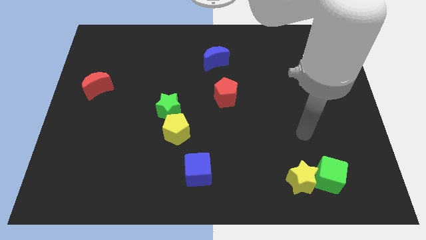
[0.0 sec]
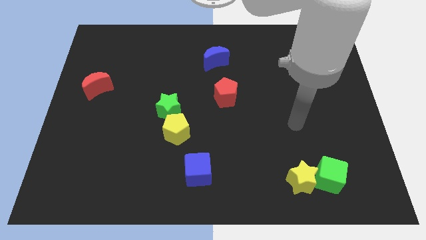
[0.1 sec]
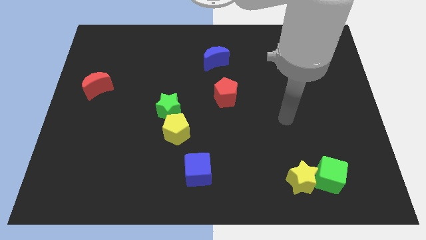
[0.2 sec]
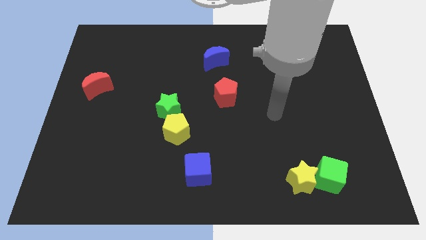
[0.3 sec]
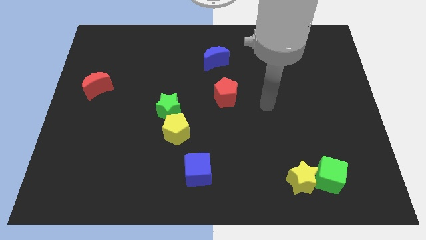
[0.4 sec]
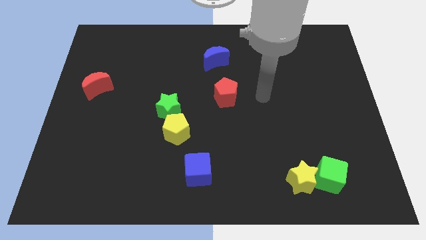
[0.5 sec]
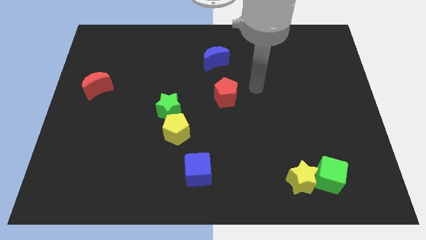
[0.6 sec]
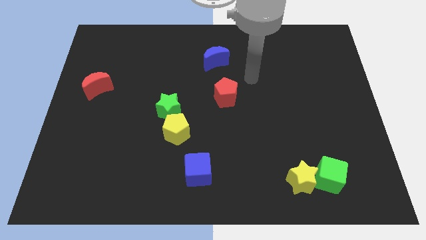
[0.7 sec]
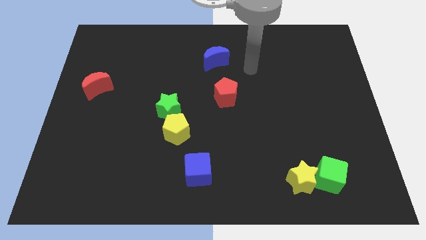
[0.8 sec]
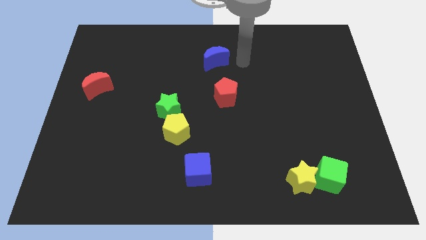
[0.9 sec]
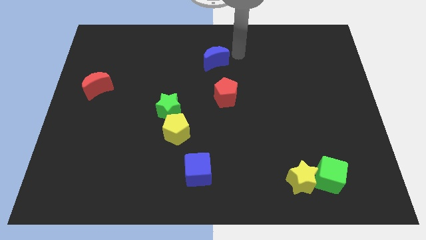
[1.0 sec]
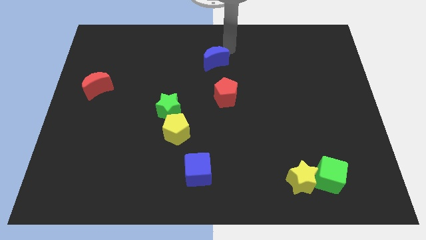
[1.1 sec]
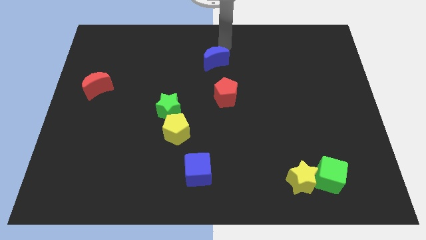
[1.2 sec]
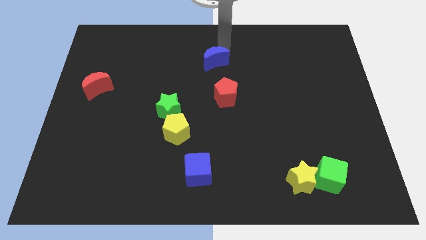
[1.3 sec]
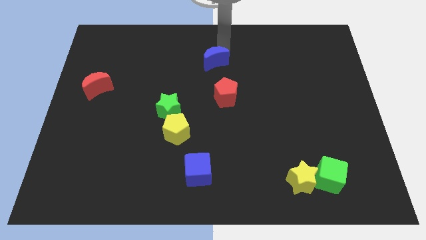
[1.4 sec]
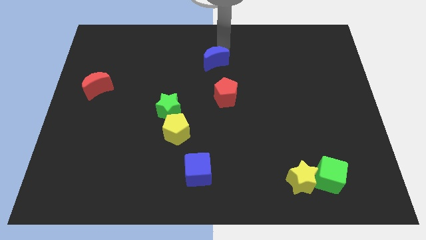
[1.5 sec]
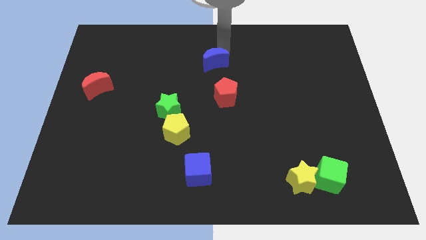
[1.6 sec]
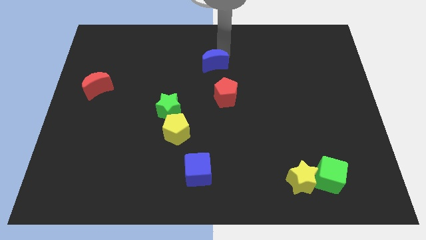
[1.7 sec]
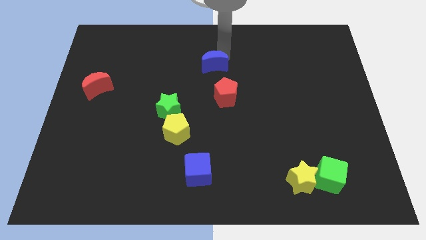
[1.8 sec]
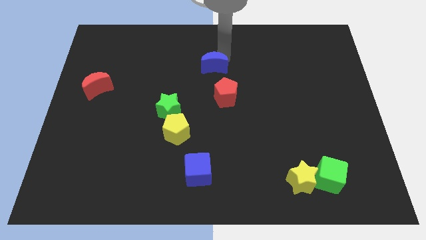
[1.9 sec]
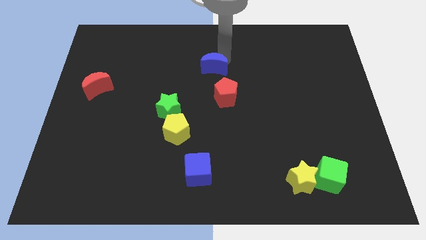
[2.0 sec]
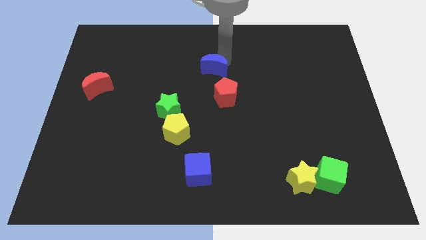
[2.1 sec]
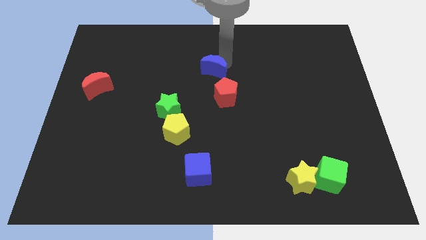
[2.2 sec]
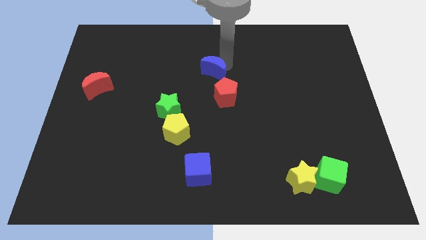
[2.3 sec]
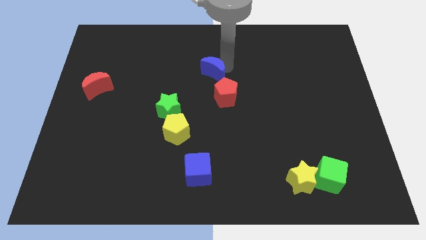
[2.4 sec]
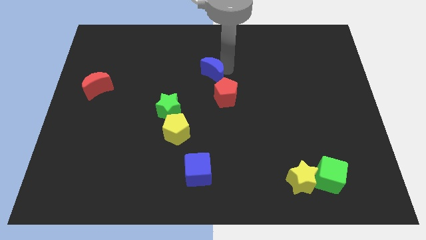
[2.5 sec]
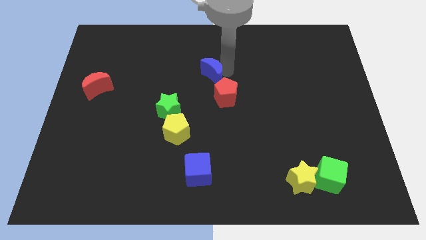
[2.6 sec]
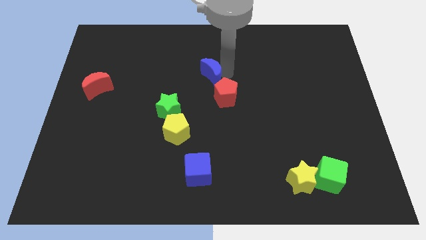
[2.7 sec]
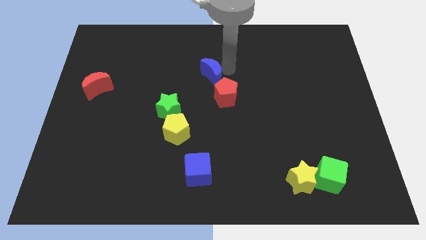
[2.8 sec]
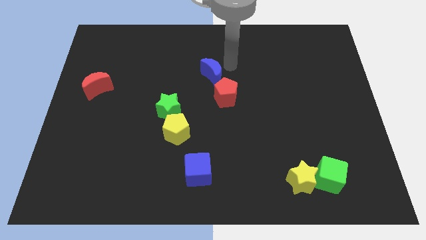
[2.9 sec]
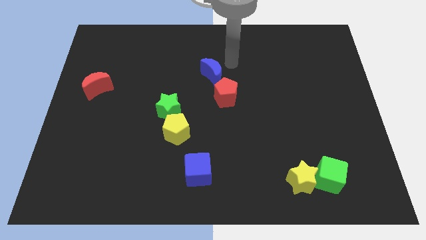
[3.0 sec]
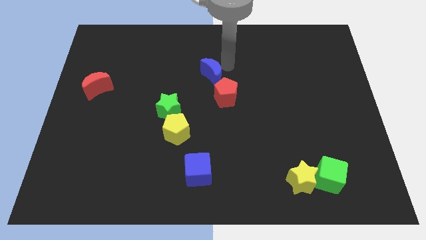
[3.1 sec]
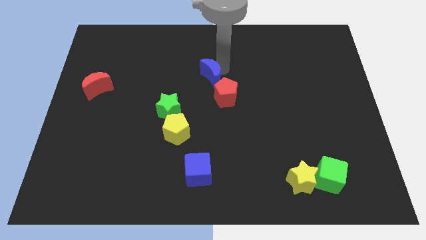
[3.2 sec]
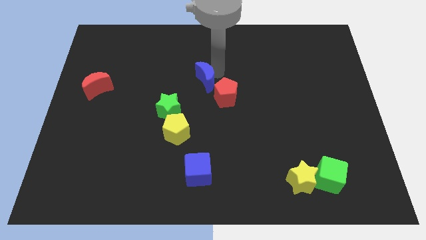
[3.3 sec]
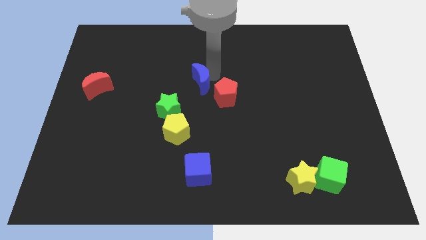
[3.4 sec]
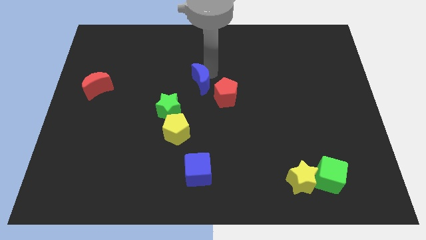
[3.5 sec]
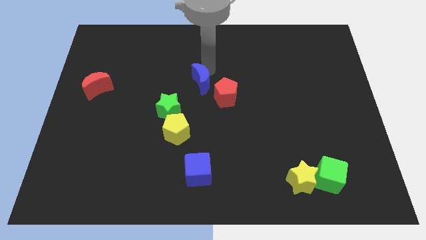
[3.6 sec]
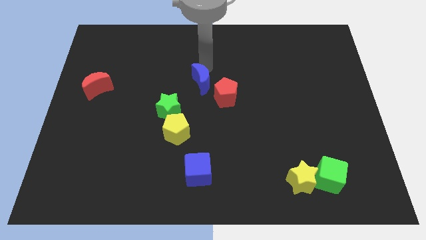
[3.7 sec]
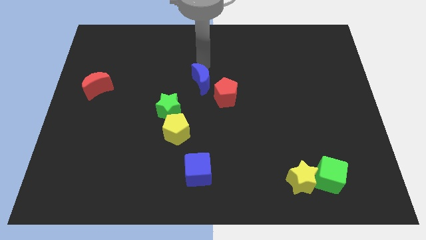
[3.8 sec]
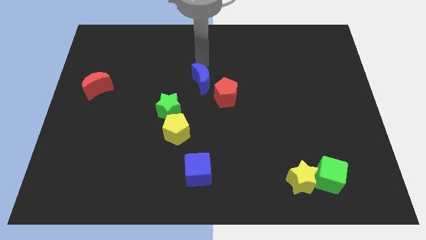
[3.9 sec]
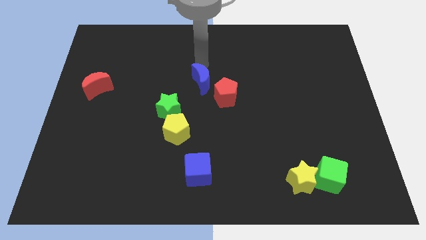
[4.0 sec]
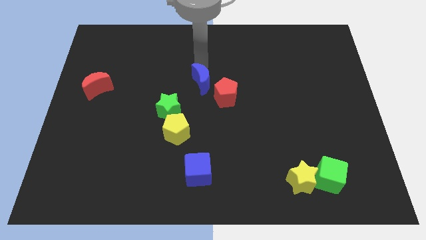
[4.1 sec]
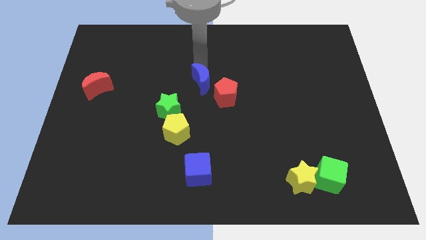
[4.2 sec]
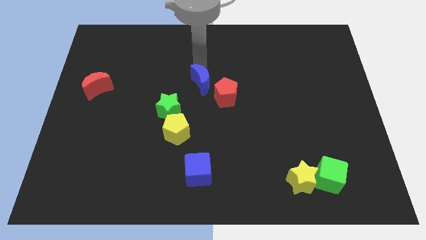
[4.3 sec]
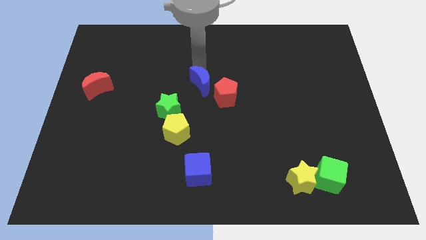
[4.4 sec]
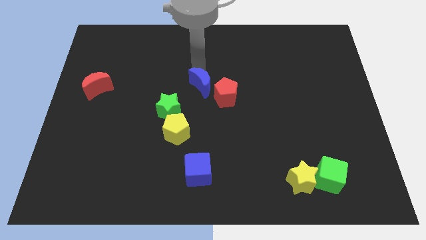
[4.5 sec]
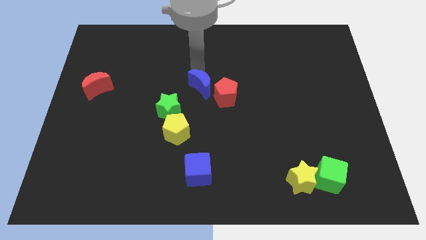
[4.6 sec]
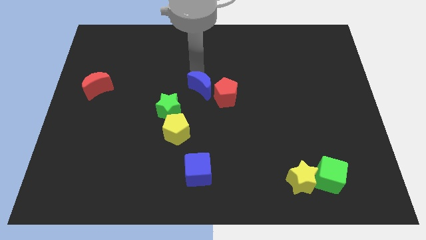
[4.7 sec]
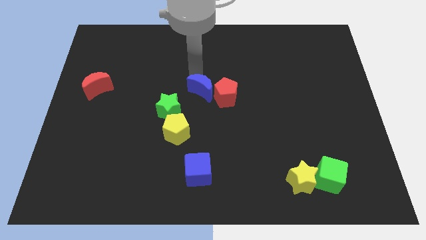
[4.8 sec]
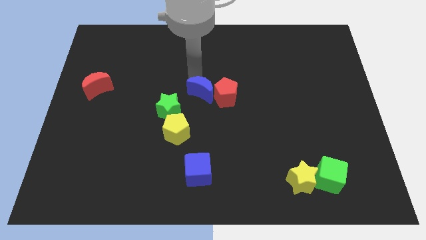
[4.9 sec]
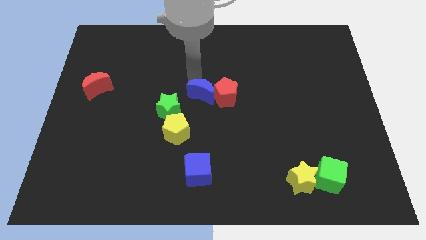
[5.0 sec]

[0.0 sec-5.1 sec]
move the blue moon to the bottom left of the red pentagon

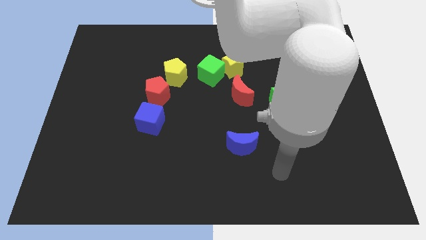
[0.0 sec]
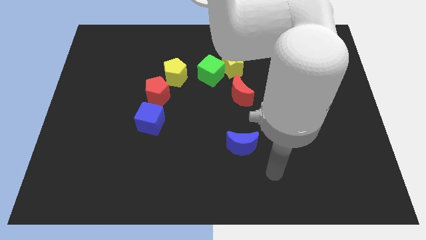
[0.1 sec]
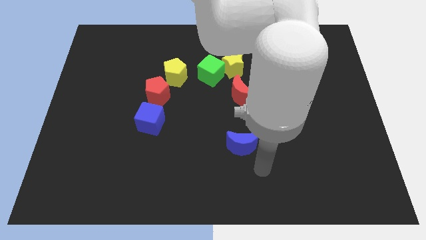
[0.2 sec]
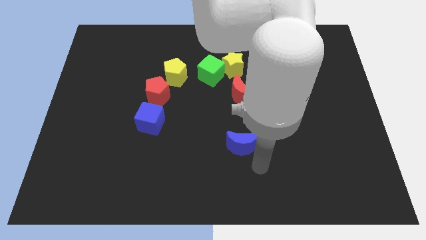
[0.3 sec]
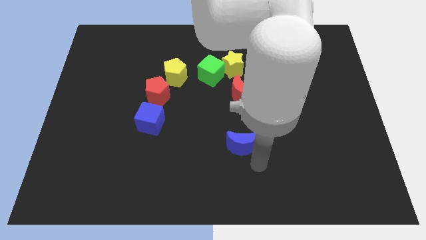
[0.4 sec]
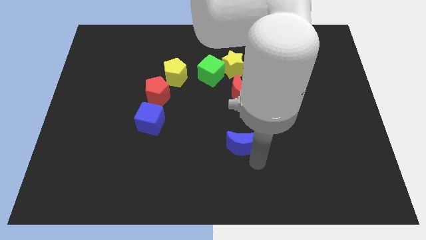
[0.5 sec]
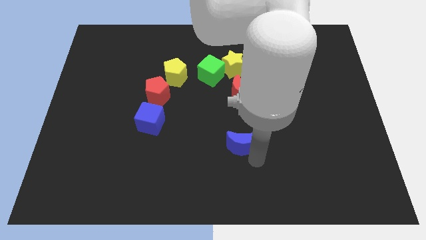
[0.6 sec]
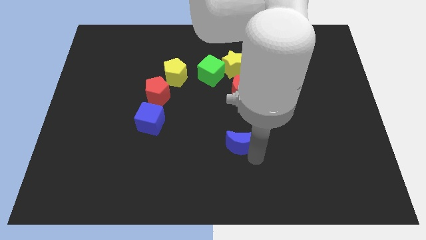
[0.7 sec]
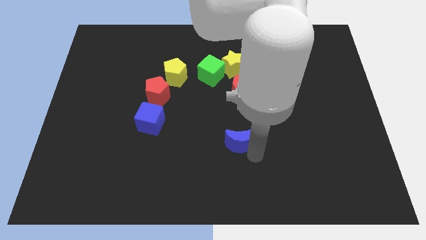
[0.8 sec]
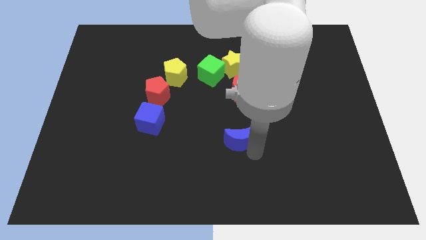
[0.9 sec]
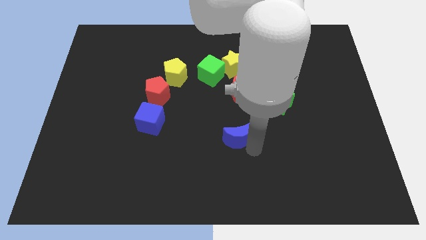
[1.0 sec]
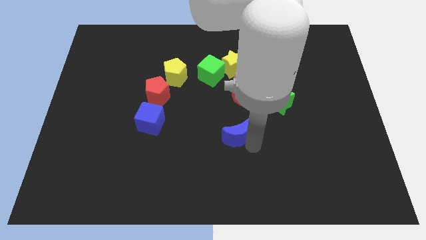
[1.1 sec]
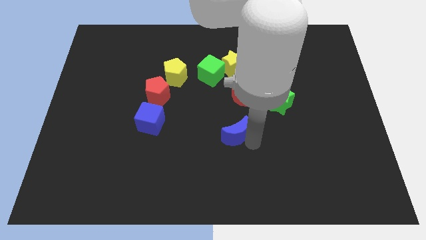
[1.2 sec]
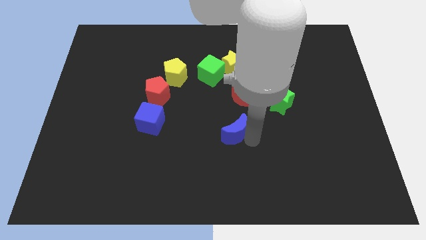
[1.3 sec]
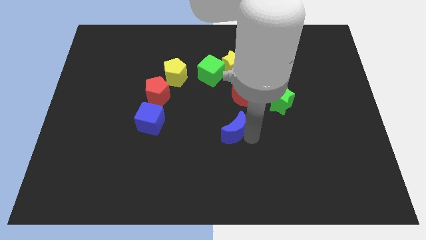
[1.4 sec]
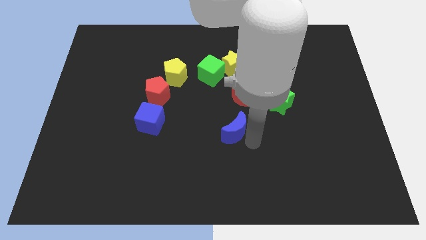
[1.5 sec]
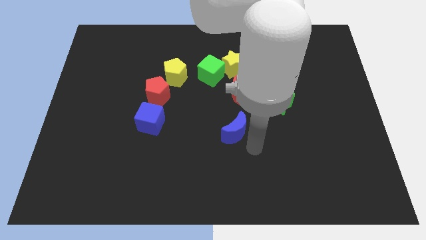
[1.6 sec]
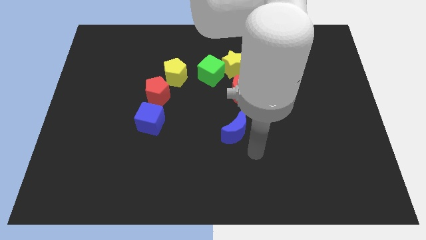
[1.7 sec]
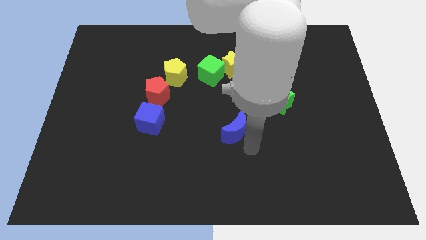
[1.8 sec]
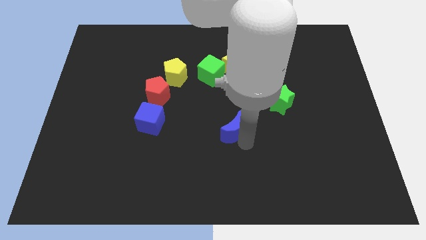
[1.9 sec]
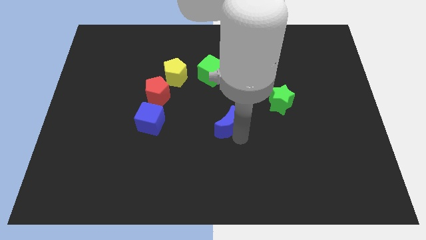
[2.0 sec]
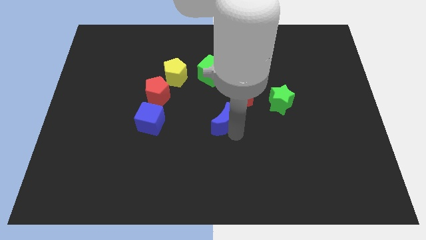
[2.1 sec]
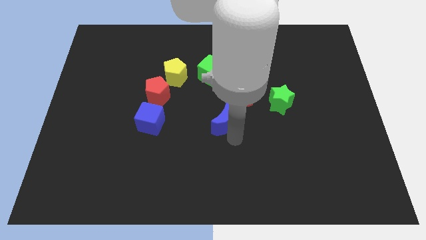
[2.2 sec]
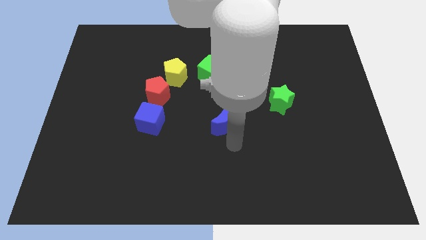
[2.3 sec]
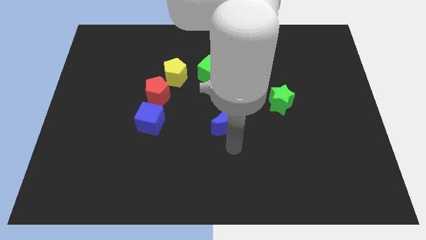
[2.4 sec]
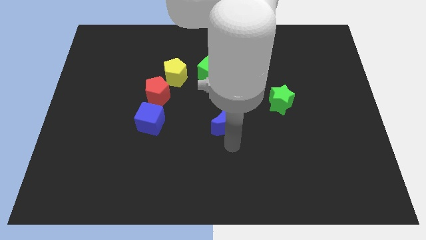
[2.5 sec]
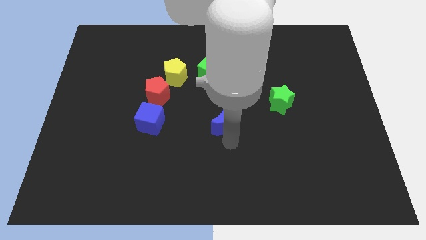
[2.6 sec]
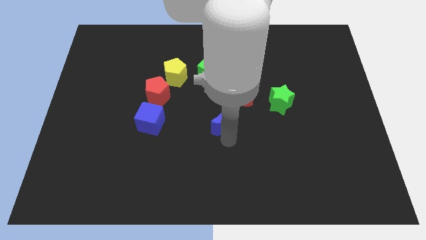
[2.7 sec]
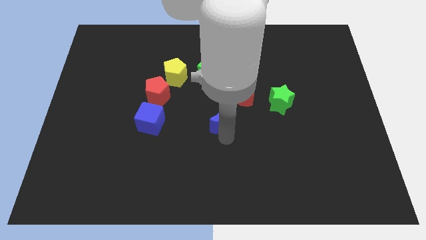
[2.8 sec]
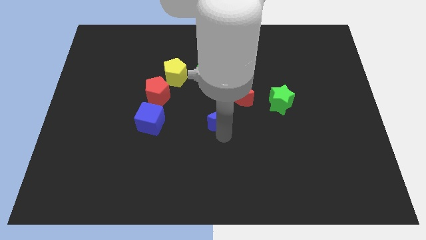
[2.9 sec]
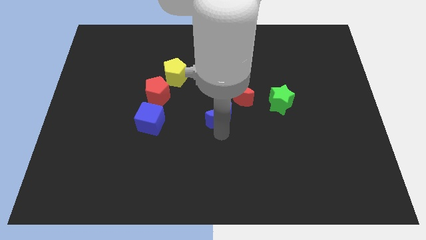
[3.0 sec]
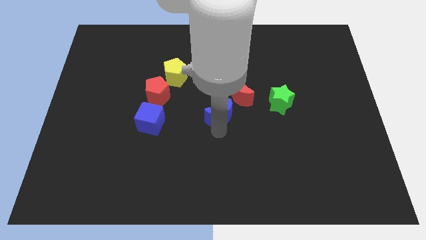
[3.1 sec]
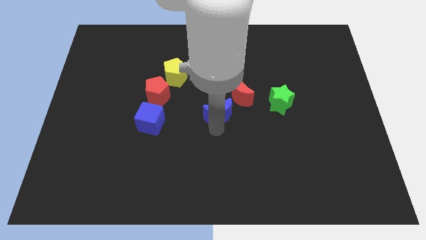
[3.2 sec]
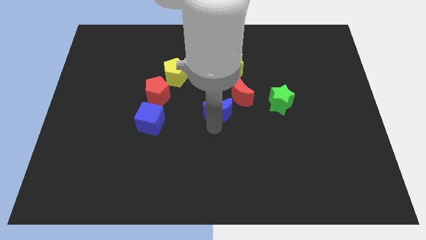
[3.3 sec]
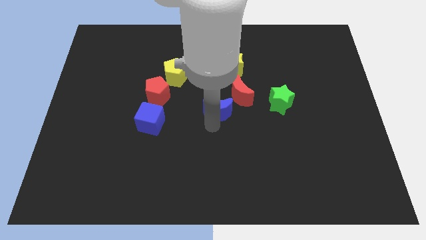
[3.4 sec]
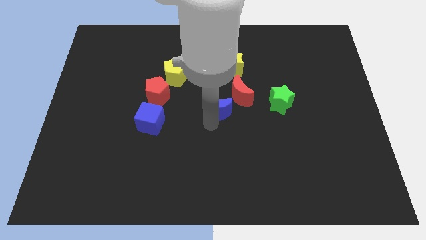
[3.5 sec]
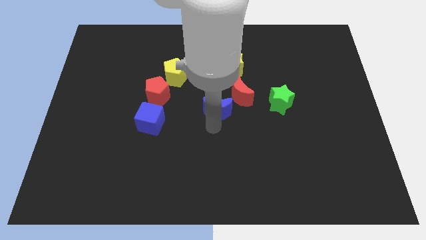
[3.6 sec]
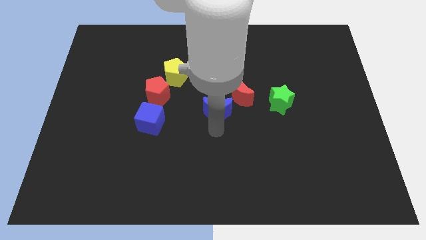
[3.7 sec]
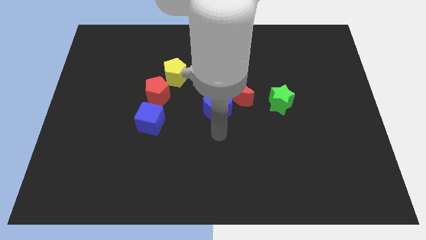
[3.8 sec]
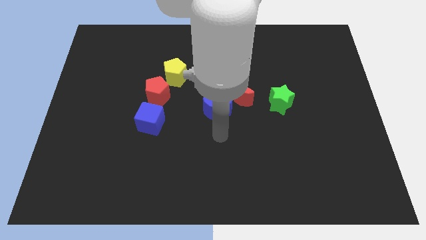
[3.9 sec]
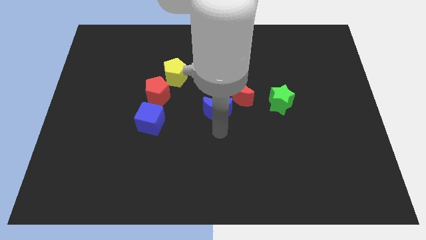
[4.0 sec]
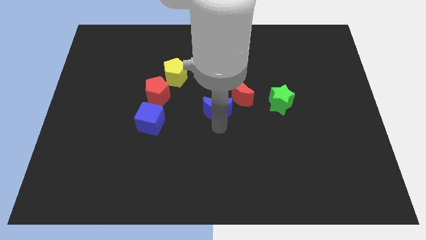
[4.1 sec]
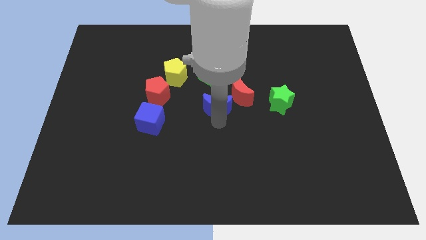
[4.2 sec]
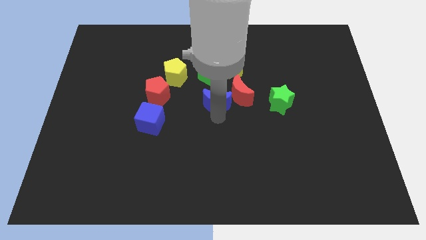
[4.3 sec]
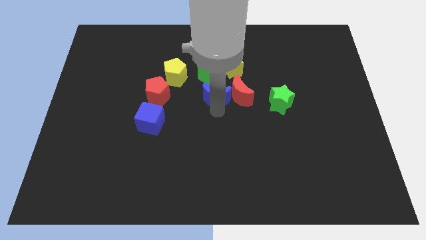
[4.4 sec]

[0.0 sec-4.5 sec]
push the blue moon to the bottom left side of the yellow star
